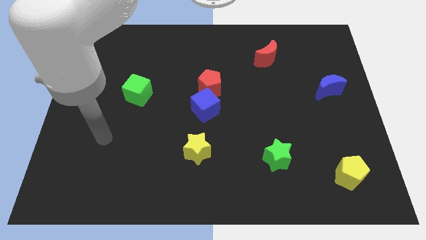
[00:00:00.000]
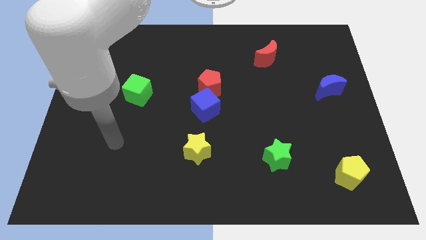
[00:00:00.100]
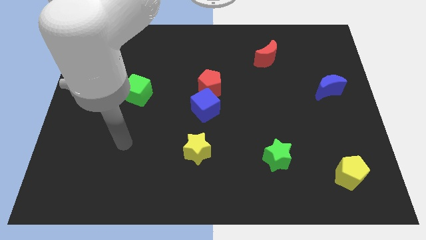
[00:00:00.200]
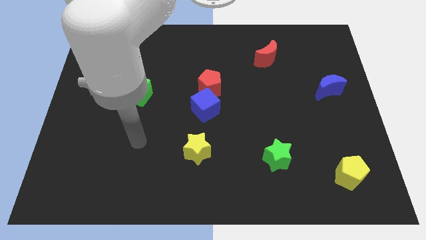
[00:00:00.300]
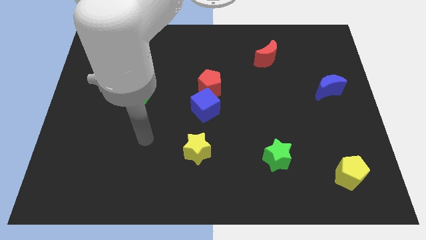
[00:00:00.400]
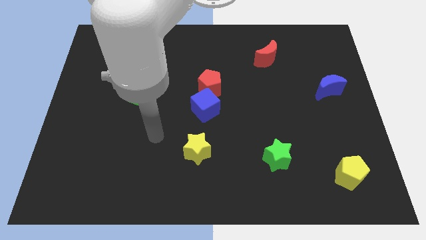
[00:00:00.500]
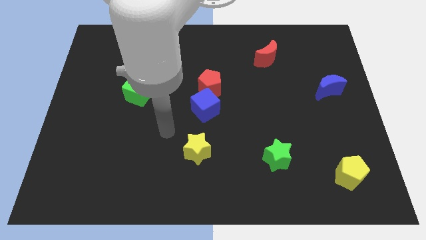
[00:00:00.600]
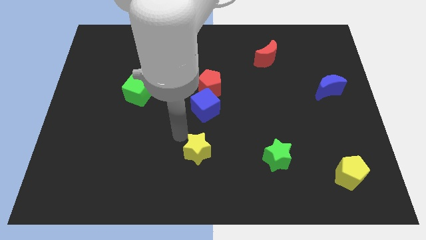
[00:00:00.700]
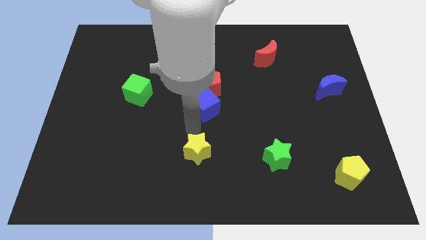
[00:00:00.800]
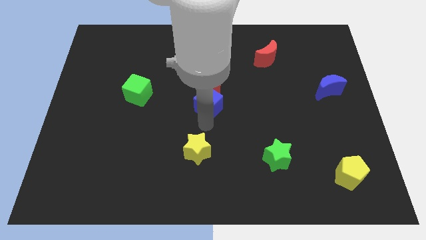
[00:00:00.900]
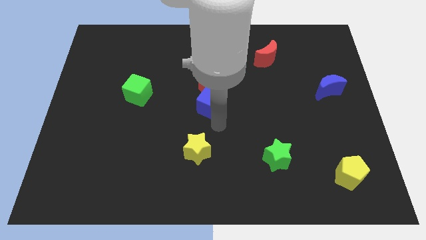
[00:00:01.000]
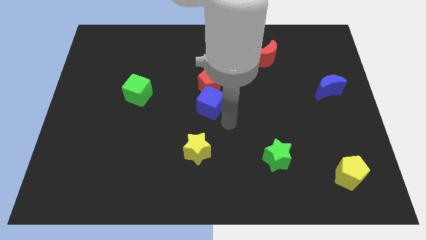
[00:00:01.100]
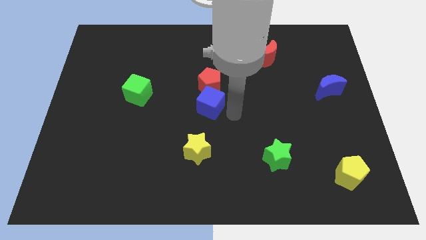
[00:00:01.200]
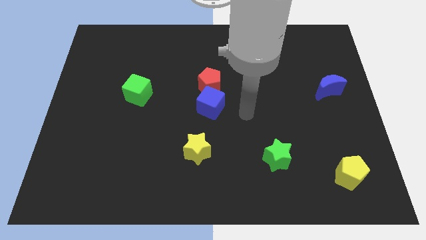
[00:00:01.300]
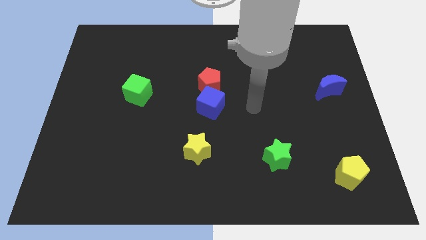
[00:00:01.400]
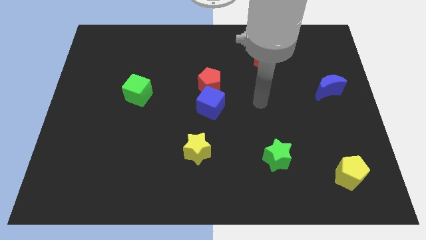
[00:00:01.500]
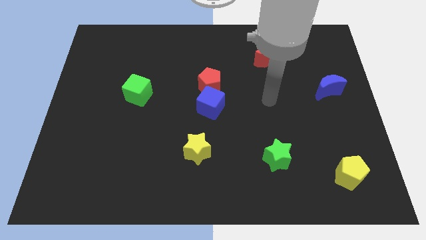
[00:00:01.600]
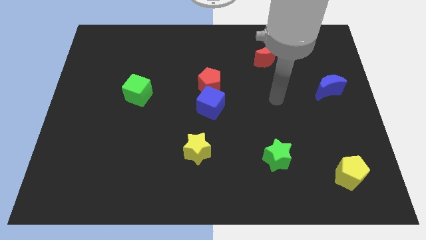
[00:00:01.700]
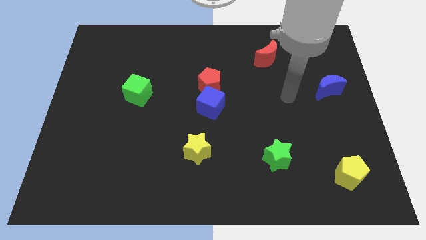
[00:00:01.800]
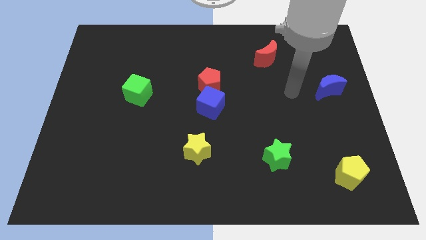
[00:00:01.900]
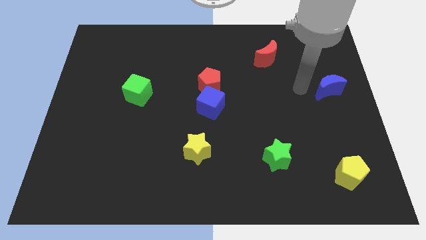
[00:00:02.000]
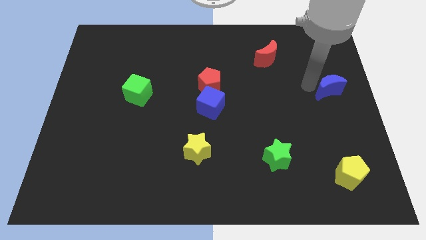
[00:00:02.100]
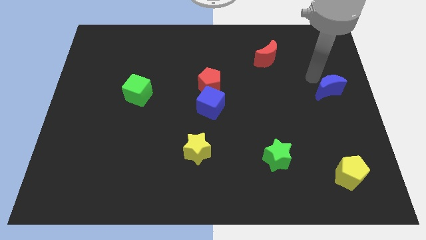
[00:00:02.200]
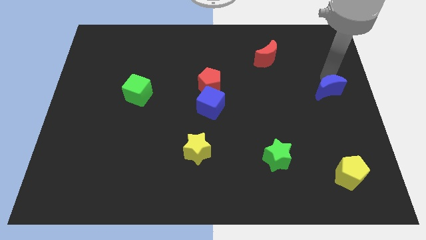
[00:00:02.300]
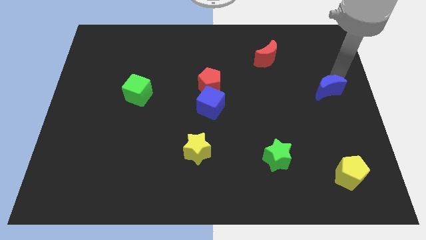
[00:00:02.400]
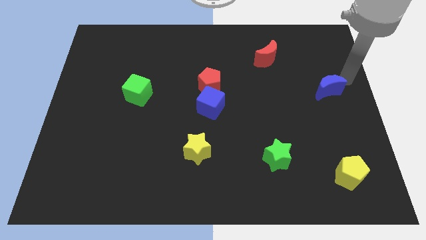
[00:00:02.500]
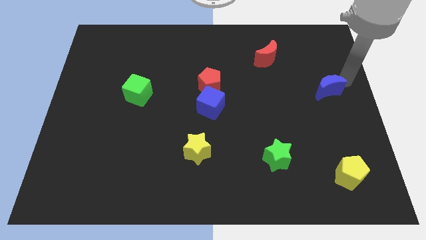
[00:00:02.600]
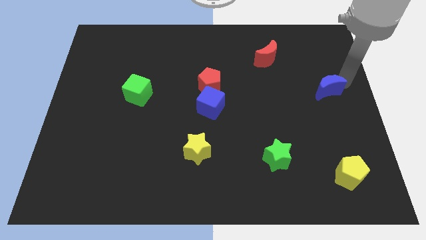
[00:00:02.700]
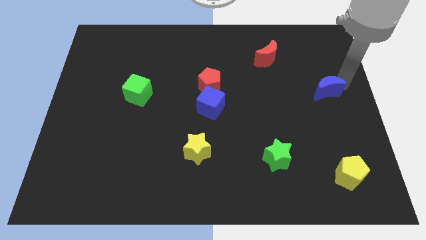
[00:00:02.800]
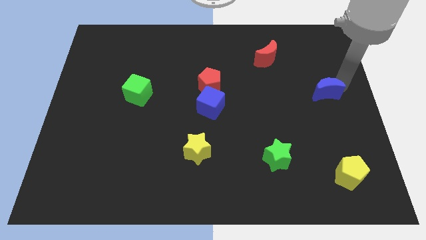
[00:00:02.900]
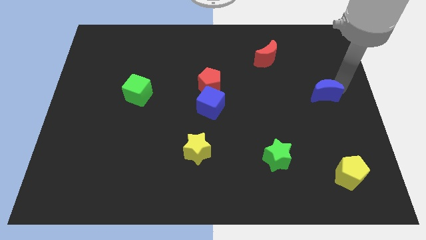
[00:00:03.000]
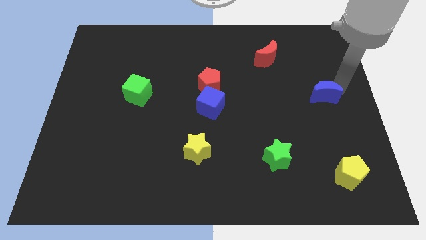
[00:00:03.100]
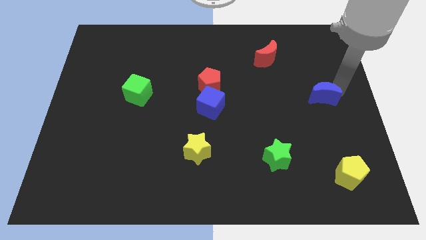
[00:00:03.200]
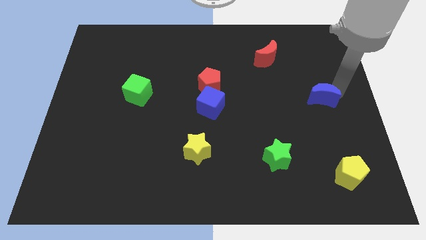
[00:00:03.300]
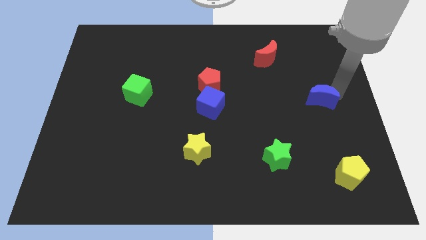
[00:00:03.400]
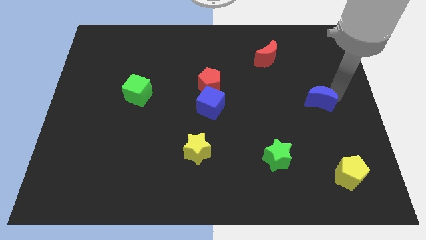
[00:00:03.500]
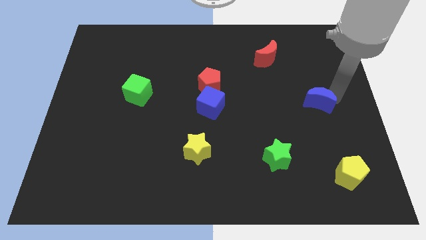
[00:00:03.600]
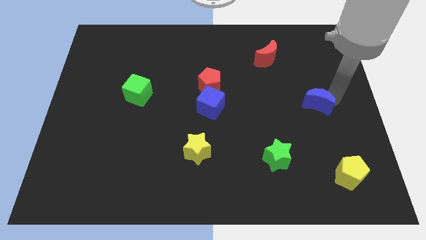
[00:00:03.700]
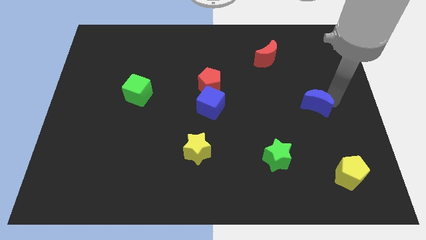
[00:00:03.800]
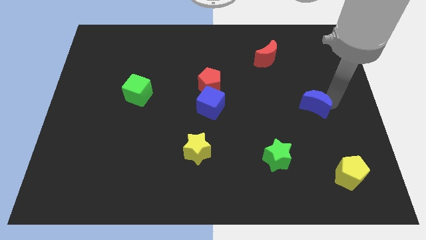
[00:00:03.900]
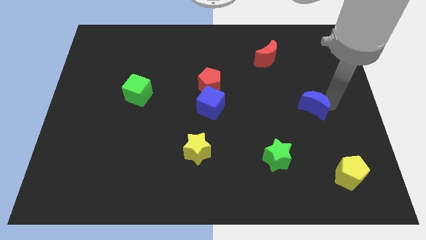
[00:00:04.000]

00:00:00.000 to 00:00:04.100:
move the blue moon a little diagonally down and left

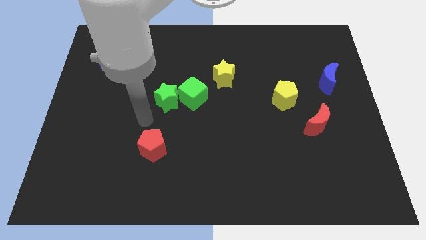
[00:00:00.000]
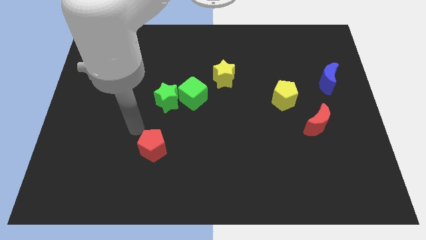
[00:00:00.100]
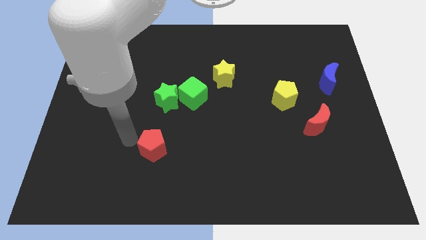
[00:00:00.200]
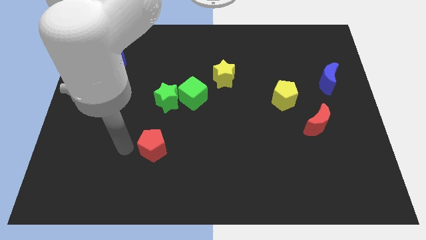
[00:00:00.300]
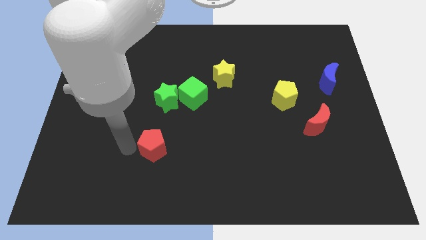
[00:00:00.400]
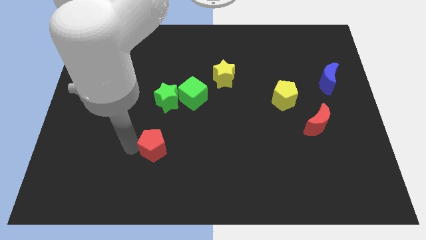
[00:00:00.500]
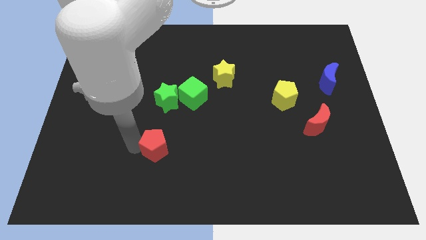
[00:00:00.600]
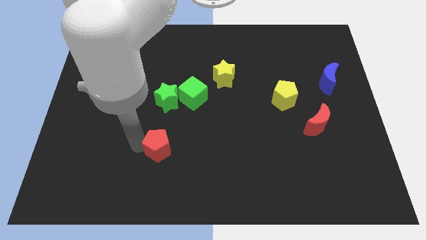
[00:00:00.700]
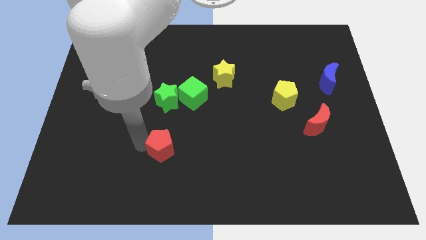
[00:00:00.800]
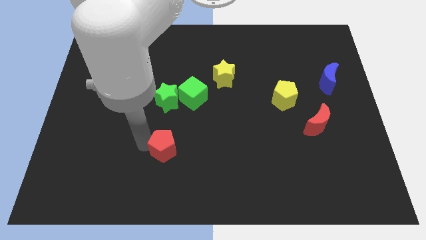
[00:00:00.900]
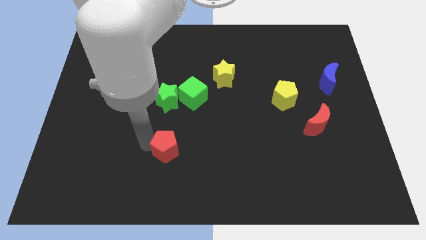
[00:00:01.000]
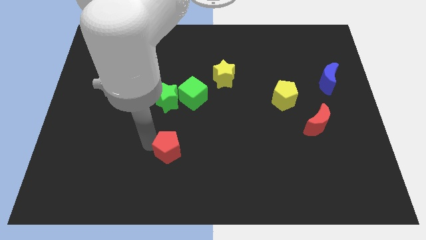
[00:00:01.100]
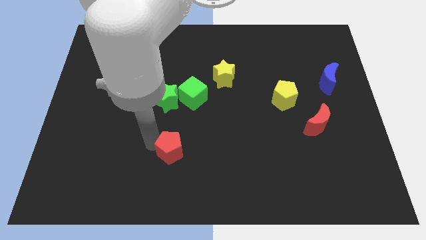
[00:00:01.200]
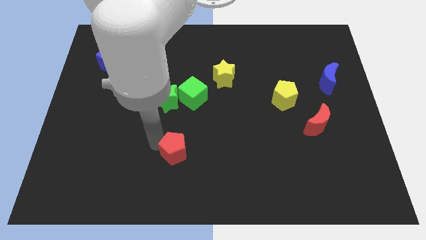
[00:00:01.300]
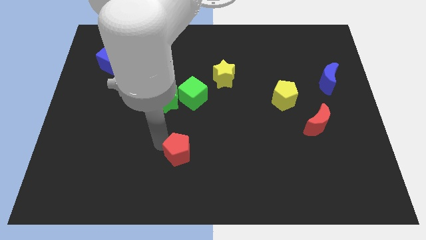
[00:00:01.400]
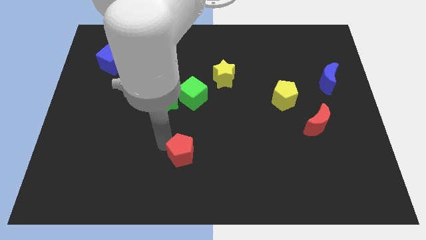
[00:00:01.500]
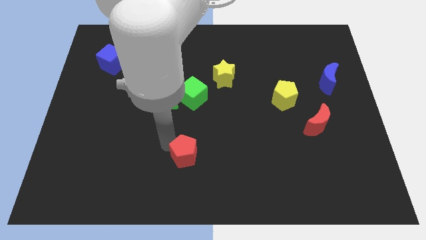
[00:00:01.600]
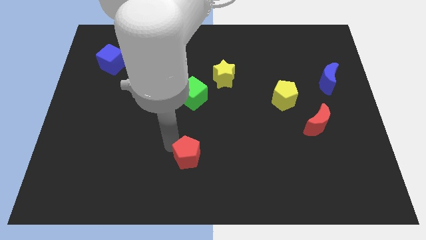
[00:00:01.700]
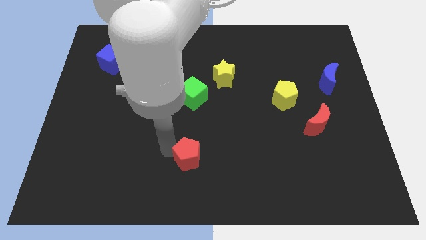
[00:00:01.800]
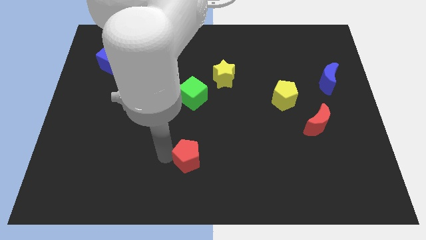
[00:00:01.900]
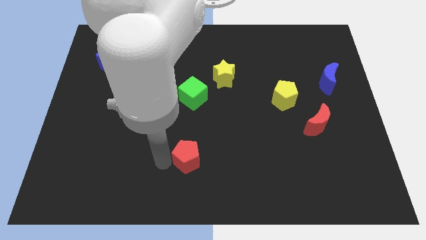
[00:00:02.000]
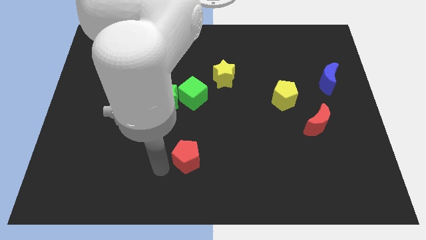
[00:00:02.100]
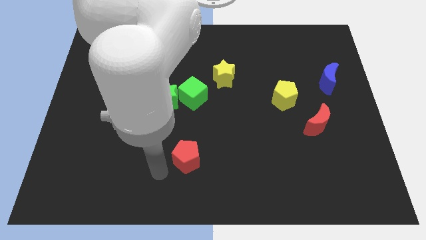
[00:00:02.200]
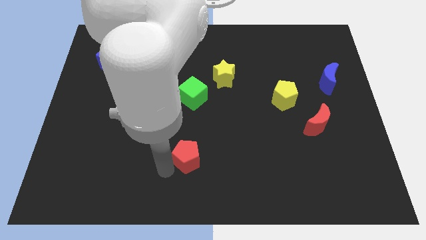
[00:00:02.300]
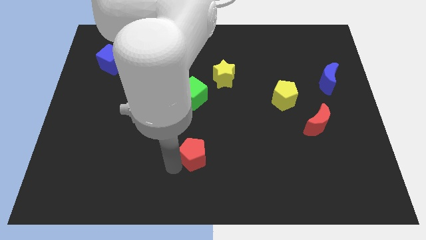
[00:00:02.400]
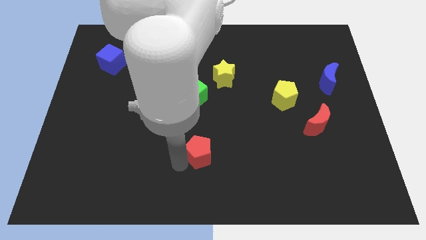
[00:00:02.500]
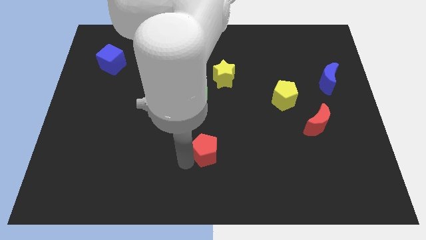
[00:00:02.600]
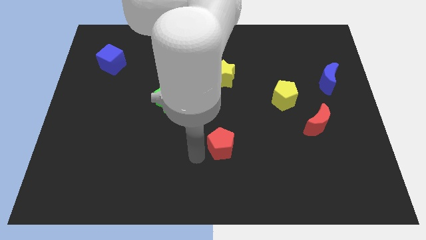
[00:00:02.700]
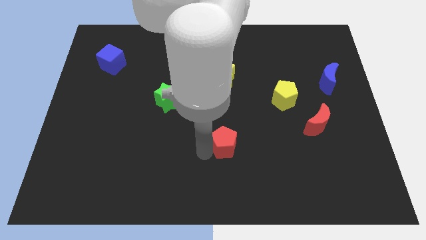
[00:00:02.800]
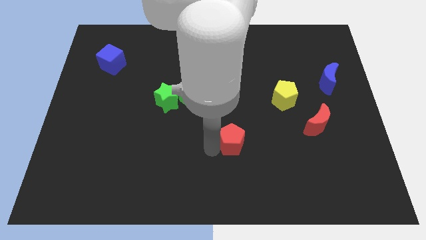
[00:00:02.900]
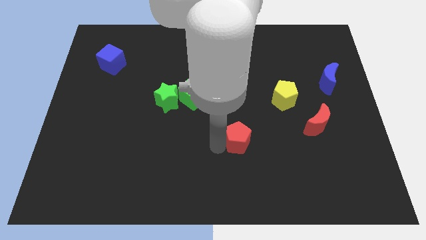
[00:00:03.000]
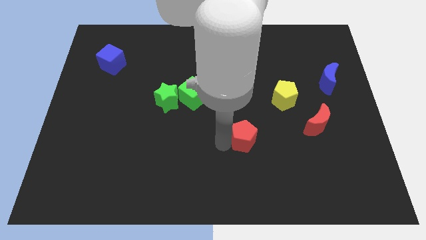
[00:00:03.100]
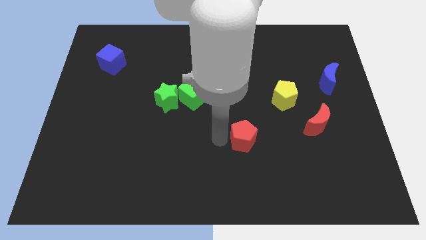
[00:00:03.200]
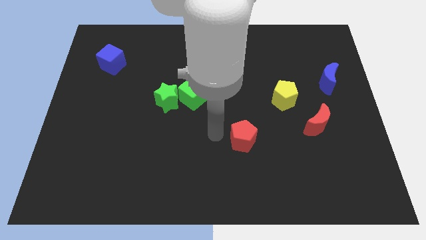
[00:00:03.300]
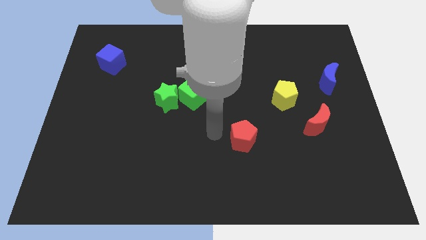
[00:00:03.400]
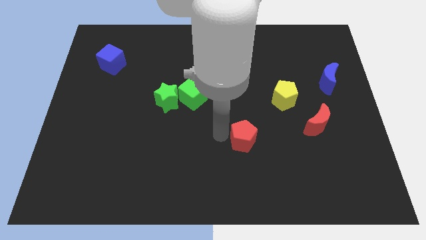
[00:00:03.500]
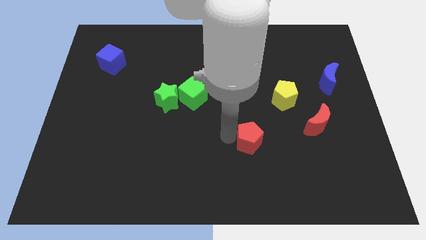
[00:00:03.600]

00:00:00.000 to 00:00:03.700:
push the red pentagon right
